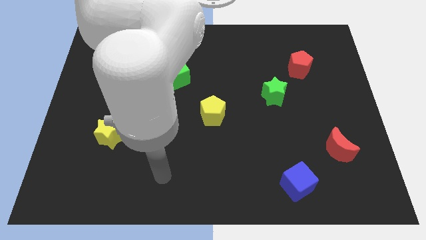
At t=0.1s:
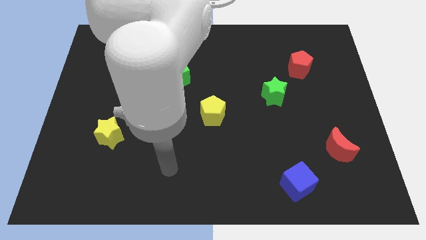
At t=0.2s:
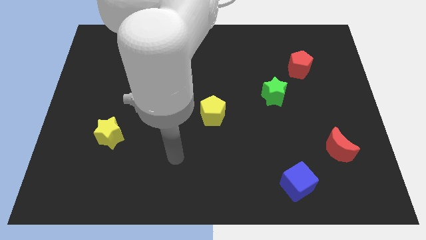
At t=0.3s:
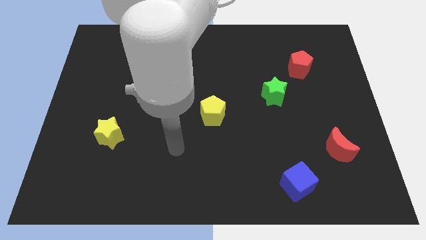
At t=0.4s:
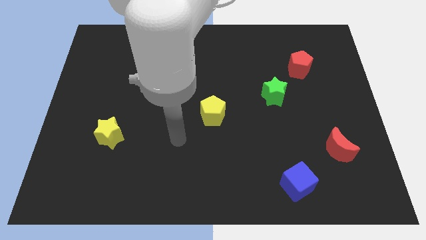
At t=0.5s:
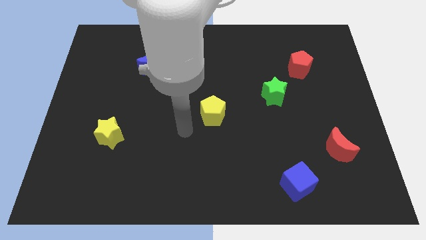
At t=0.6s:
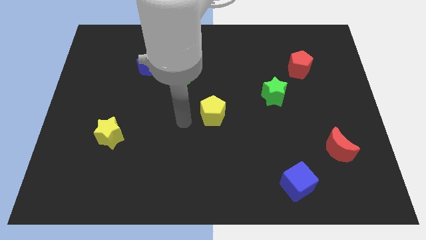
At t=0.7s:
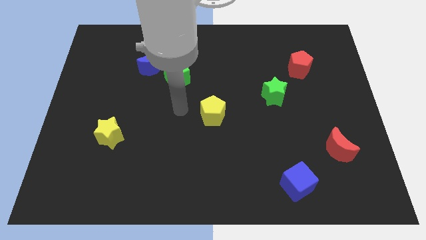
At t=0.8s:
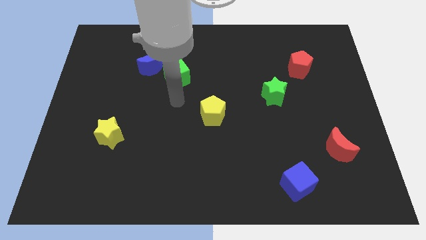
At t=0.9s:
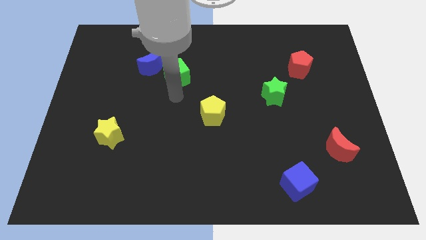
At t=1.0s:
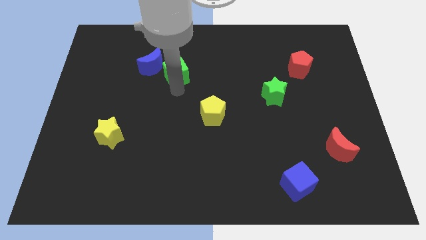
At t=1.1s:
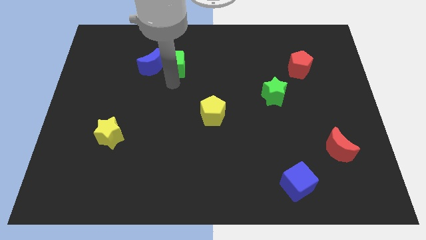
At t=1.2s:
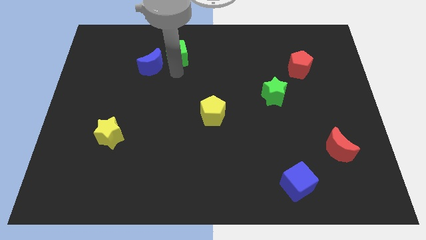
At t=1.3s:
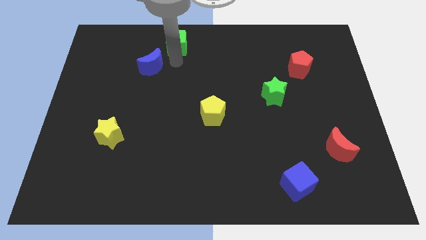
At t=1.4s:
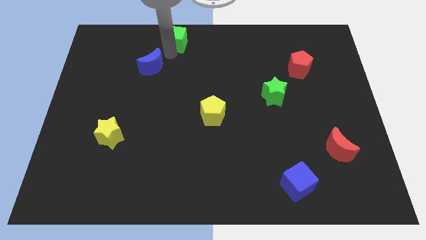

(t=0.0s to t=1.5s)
move the blue moon away from the green cube

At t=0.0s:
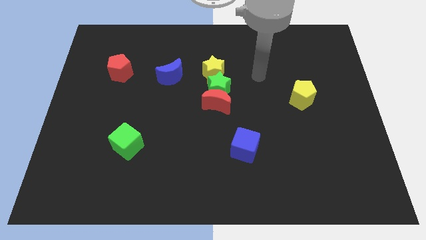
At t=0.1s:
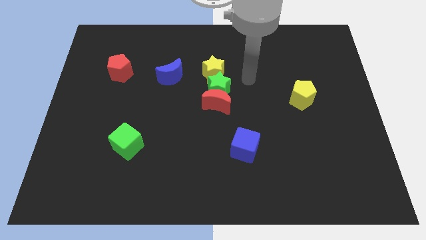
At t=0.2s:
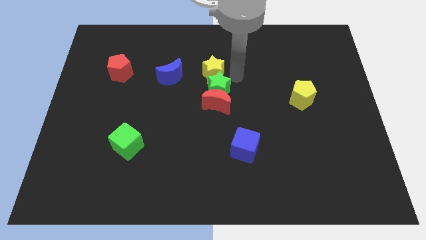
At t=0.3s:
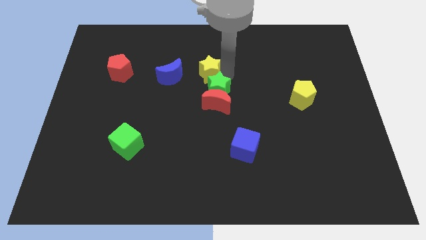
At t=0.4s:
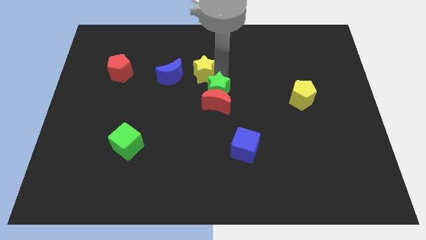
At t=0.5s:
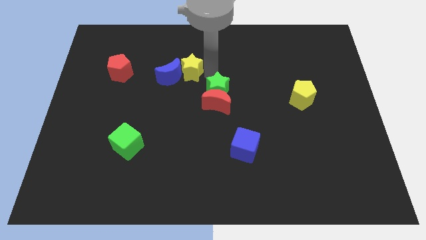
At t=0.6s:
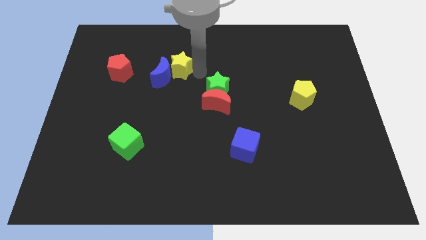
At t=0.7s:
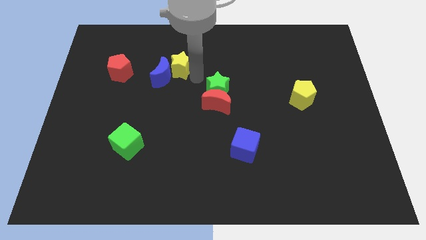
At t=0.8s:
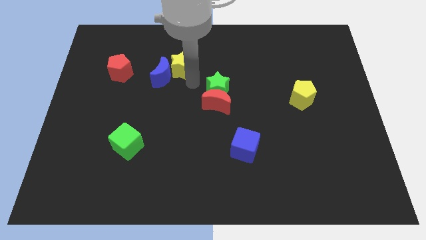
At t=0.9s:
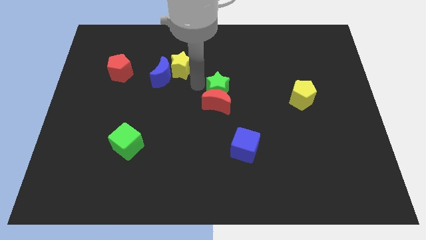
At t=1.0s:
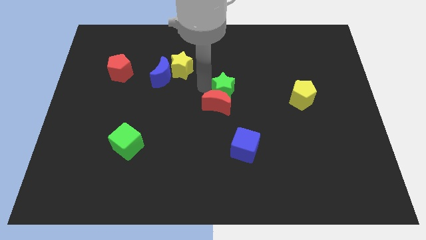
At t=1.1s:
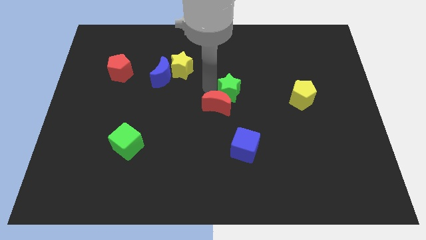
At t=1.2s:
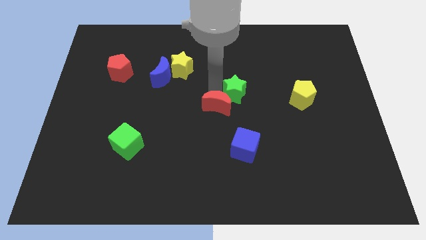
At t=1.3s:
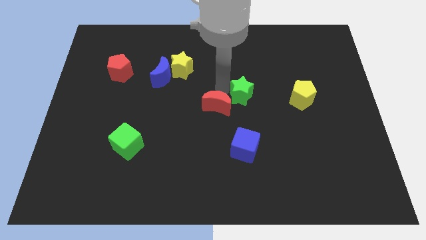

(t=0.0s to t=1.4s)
move the green star away from the red moon and yellow star

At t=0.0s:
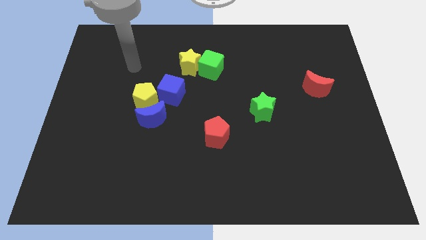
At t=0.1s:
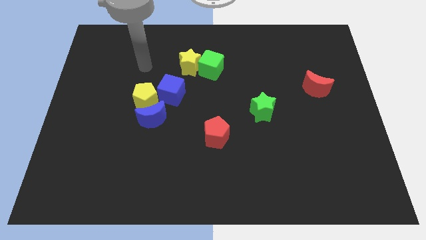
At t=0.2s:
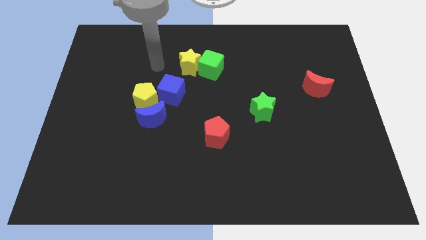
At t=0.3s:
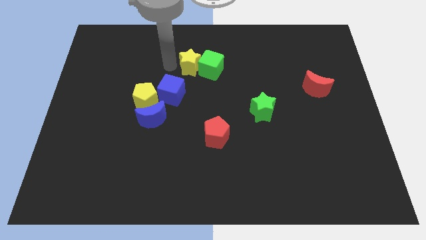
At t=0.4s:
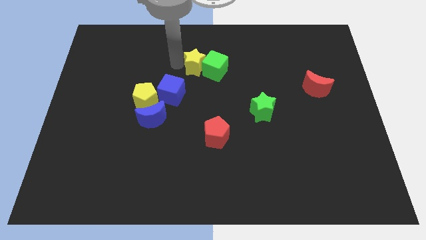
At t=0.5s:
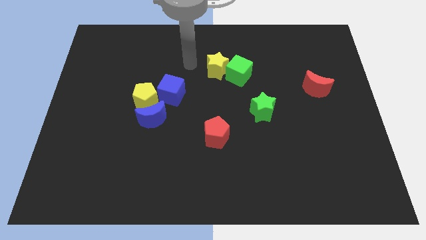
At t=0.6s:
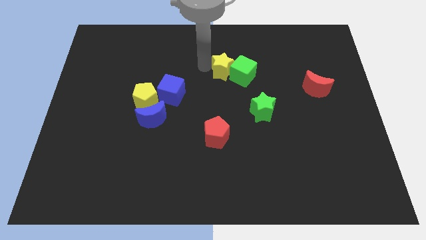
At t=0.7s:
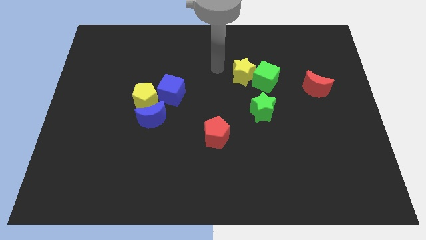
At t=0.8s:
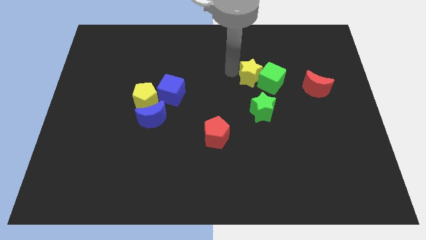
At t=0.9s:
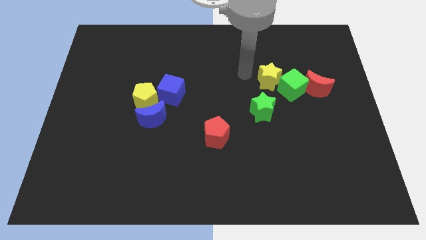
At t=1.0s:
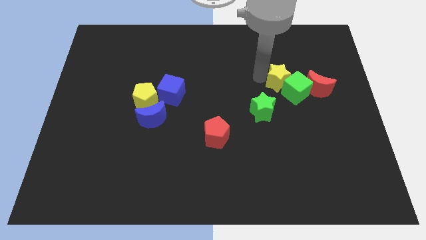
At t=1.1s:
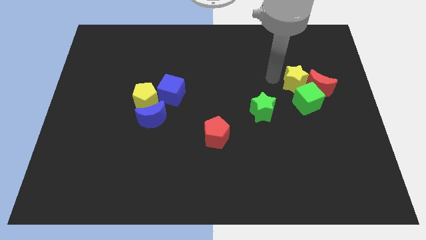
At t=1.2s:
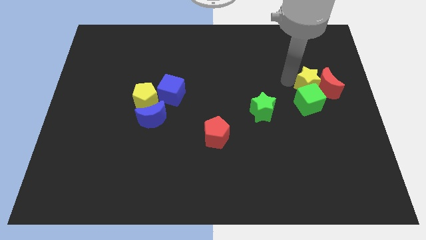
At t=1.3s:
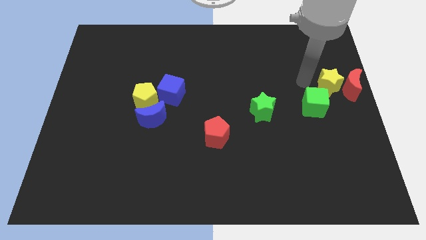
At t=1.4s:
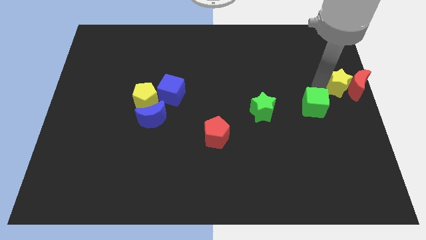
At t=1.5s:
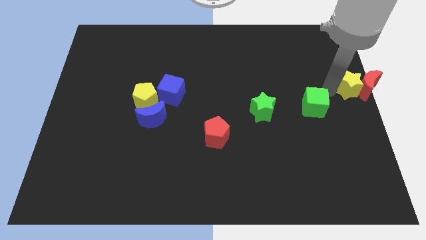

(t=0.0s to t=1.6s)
separate the green cube from the yellow star

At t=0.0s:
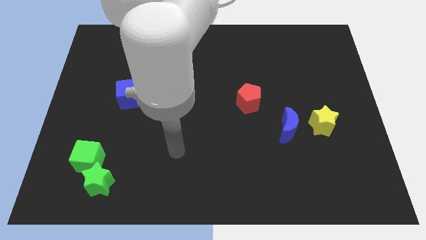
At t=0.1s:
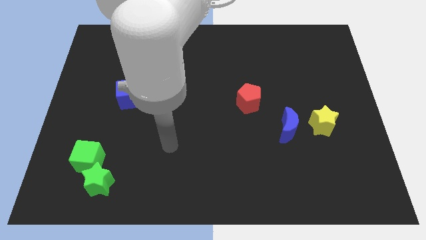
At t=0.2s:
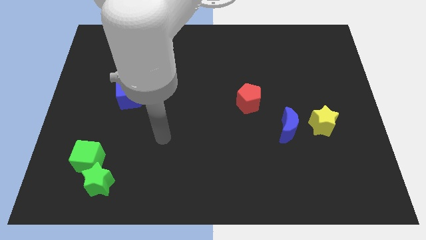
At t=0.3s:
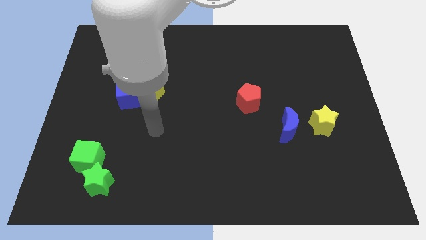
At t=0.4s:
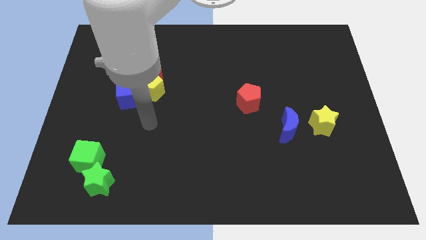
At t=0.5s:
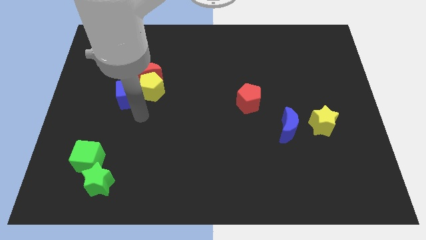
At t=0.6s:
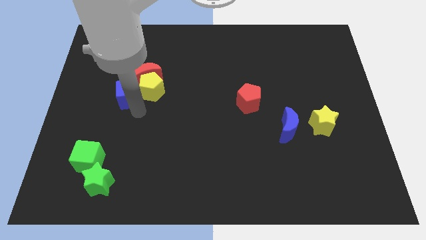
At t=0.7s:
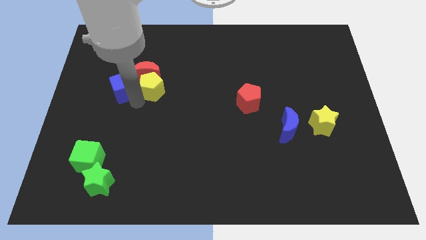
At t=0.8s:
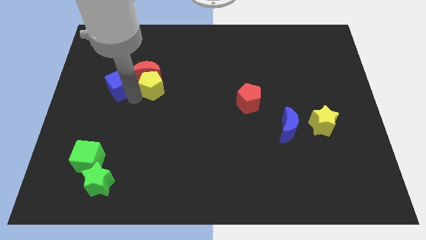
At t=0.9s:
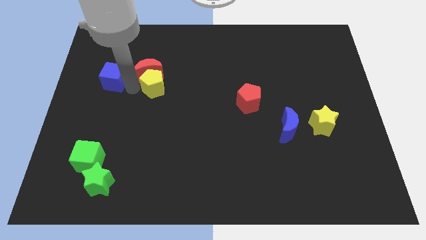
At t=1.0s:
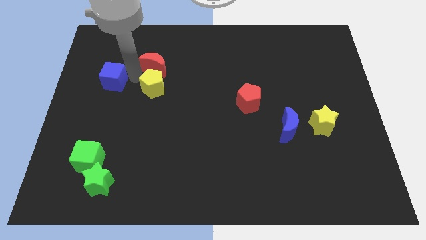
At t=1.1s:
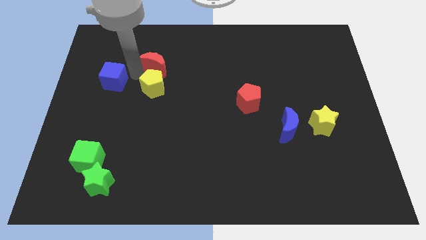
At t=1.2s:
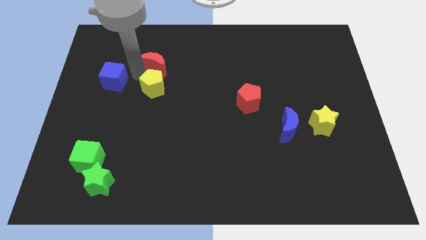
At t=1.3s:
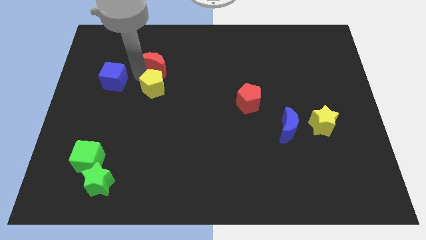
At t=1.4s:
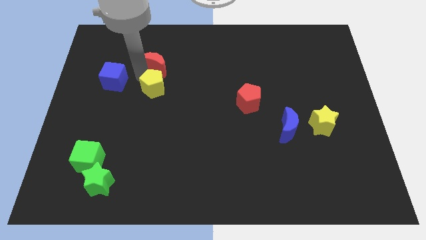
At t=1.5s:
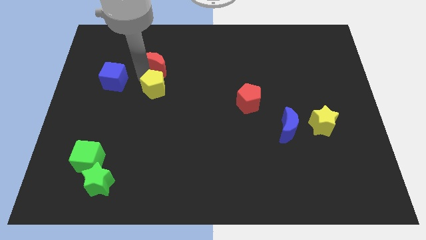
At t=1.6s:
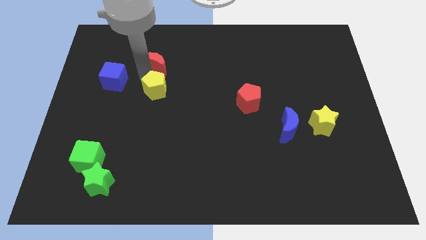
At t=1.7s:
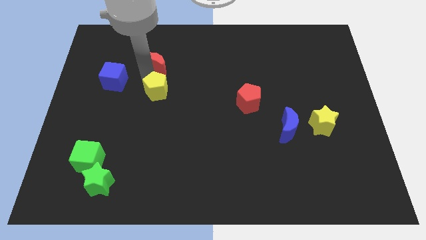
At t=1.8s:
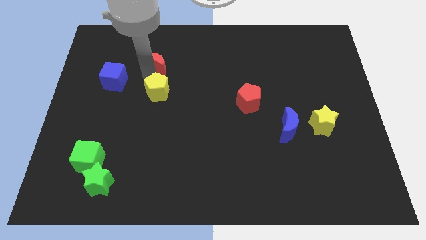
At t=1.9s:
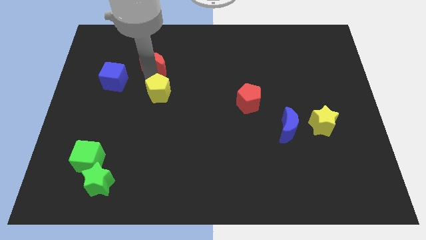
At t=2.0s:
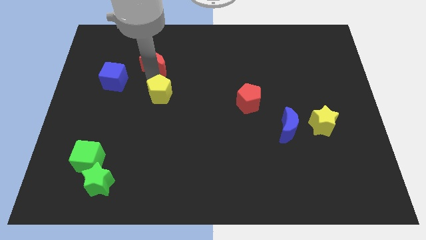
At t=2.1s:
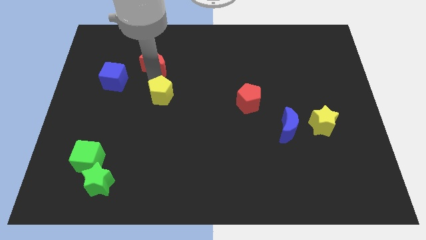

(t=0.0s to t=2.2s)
pull the yellow pentagon apart from the red moon and blue cube

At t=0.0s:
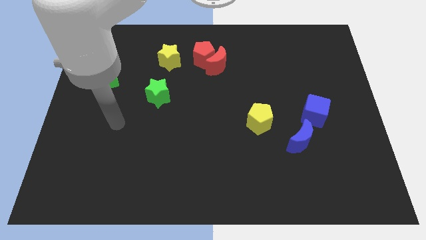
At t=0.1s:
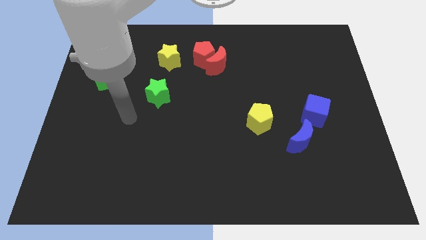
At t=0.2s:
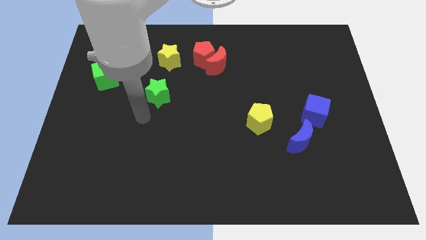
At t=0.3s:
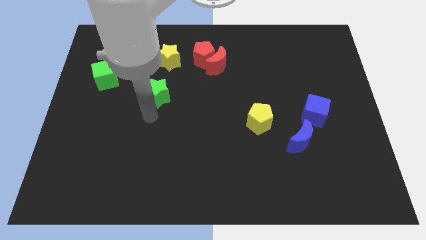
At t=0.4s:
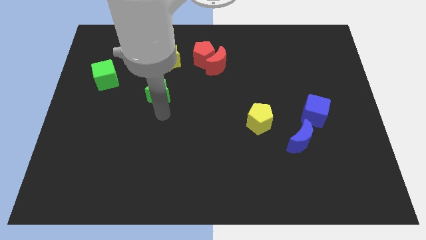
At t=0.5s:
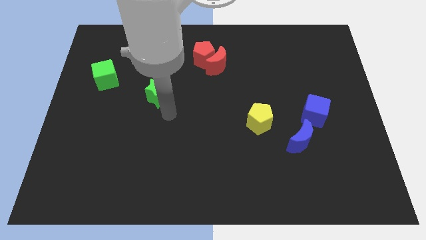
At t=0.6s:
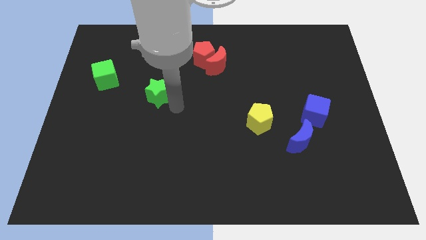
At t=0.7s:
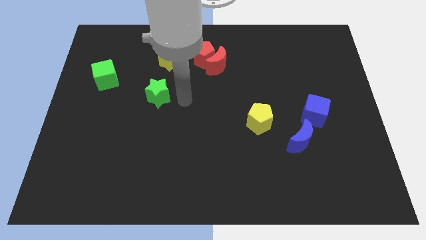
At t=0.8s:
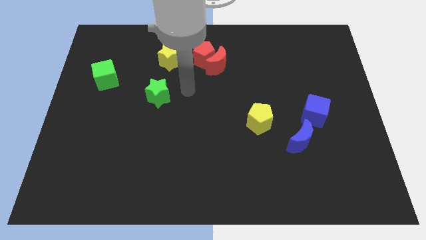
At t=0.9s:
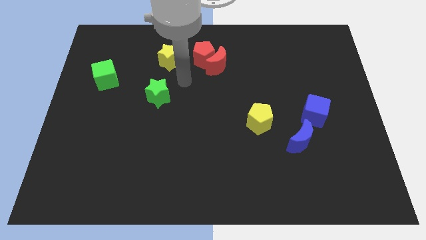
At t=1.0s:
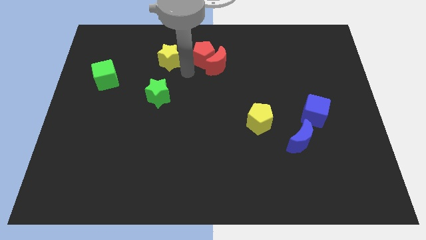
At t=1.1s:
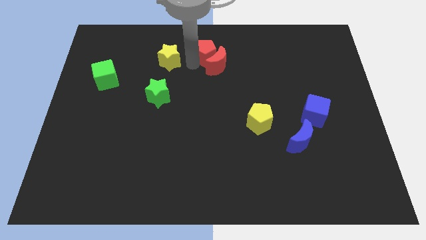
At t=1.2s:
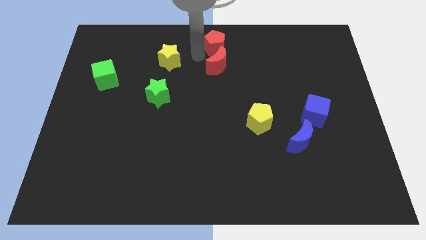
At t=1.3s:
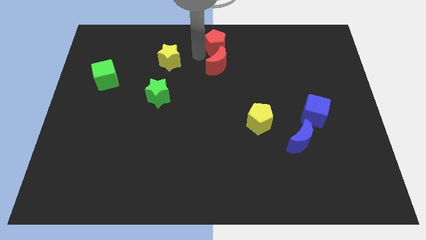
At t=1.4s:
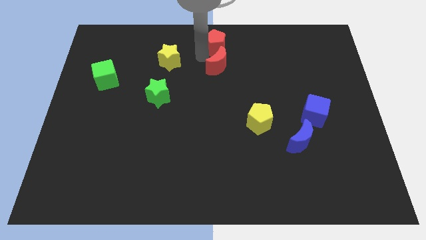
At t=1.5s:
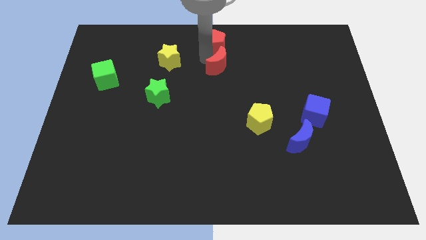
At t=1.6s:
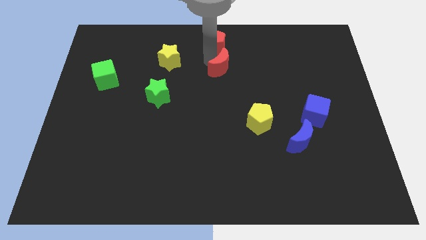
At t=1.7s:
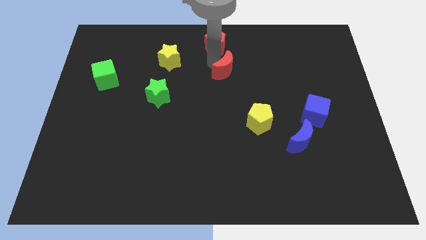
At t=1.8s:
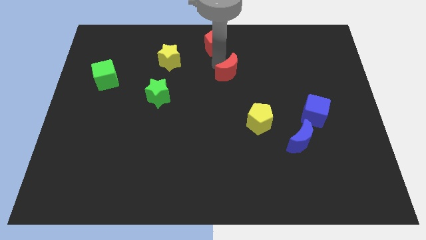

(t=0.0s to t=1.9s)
separate the red moon from the red pentagon

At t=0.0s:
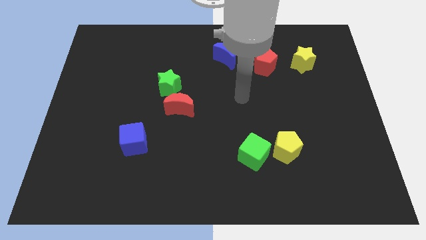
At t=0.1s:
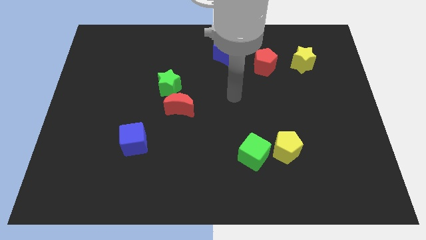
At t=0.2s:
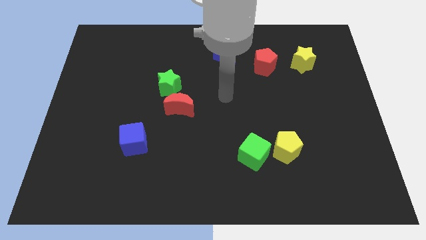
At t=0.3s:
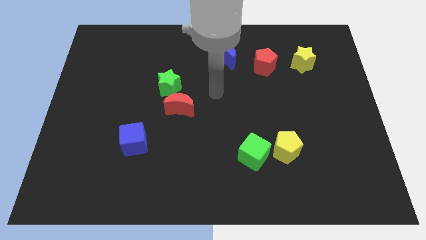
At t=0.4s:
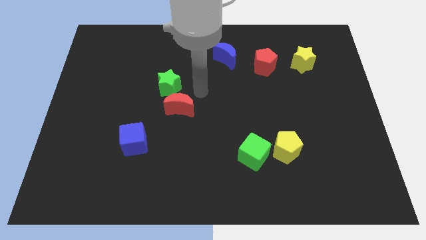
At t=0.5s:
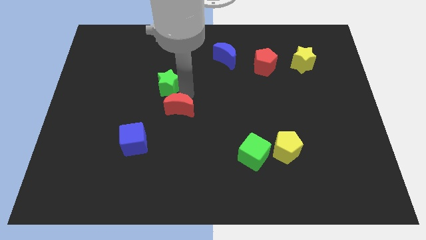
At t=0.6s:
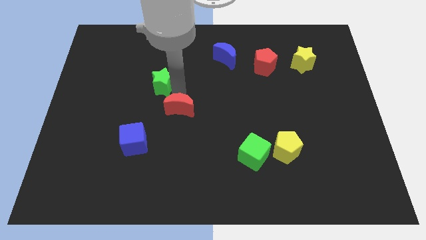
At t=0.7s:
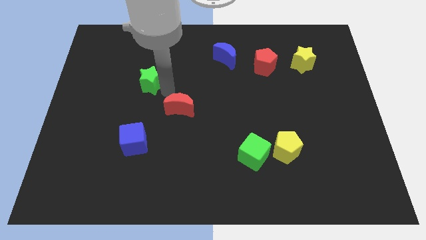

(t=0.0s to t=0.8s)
pull the red moon apart from the green star
